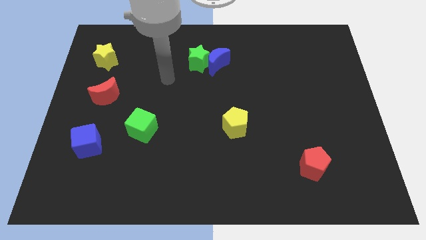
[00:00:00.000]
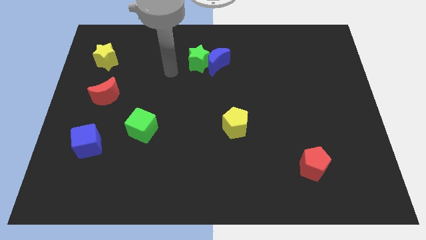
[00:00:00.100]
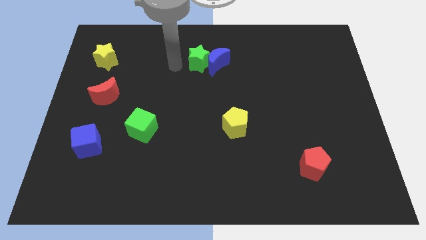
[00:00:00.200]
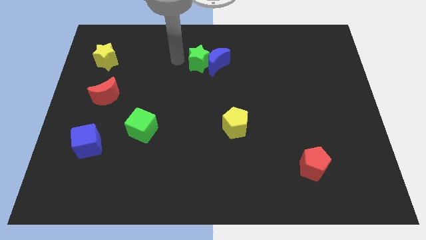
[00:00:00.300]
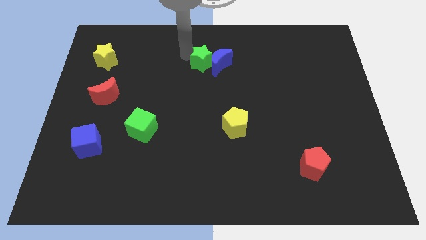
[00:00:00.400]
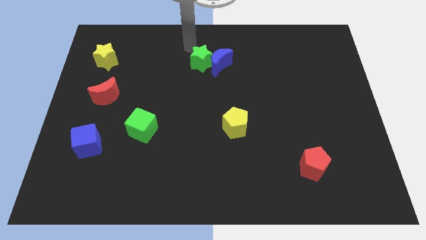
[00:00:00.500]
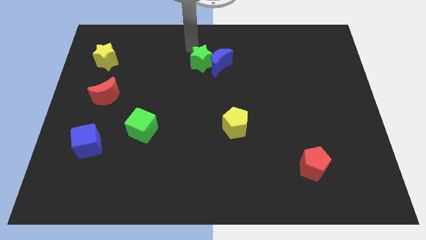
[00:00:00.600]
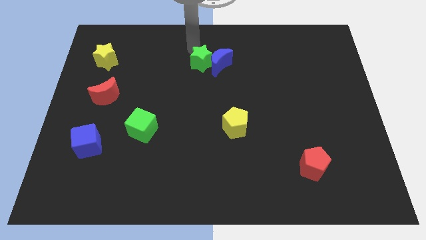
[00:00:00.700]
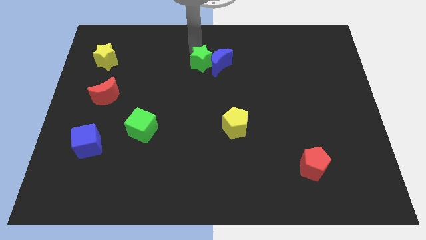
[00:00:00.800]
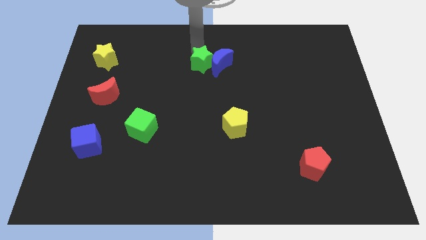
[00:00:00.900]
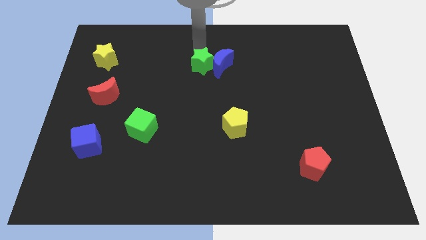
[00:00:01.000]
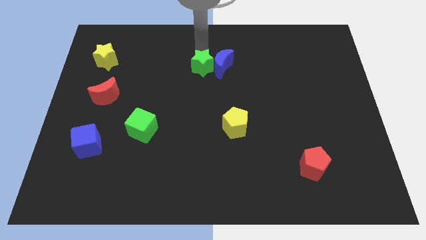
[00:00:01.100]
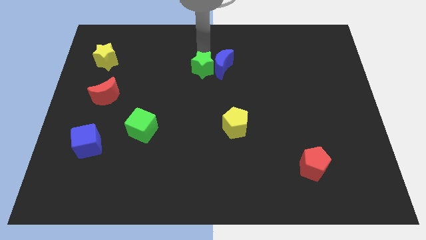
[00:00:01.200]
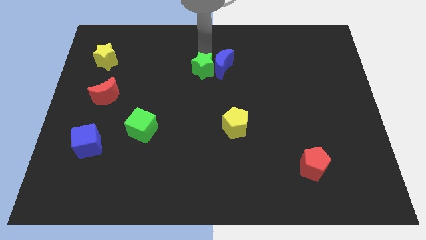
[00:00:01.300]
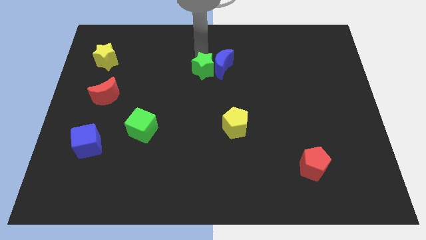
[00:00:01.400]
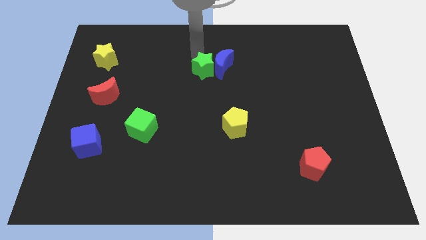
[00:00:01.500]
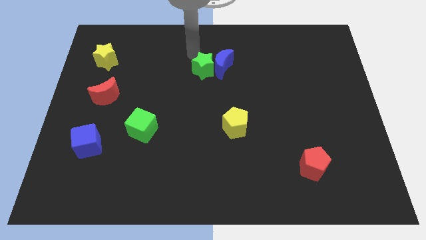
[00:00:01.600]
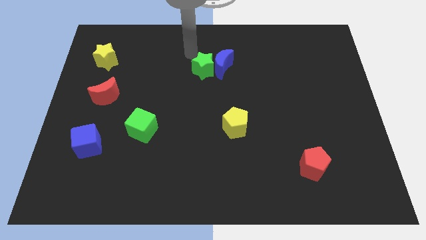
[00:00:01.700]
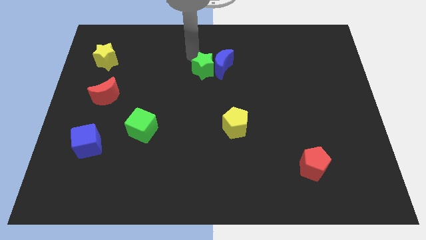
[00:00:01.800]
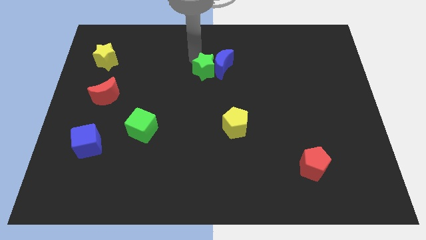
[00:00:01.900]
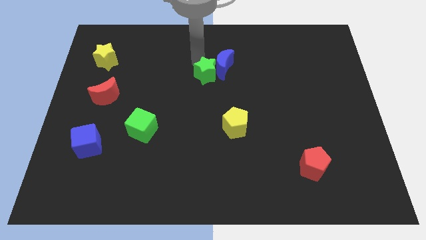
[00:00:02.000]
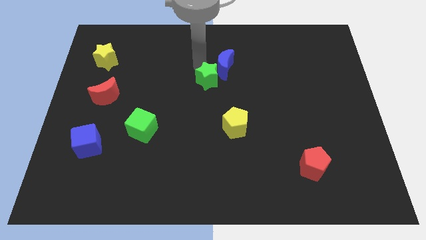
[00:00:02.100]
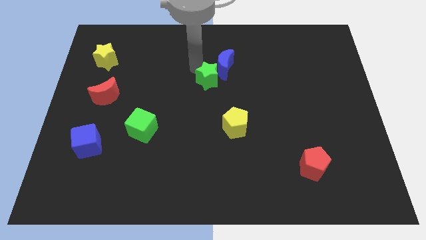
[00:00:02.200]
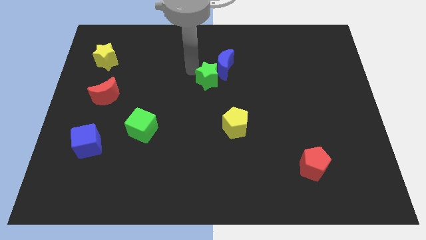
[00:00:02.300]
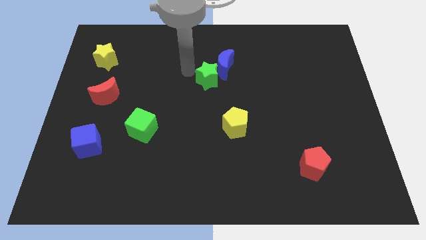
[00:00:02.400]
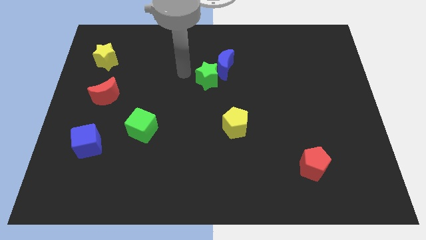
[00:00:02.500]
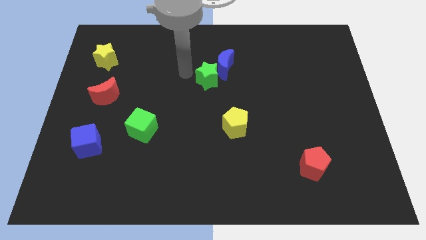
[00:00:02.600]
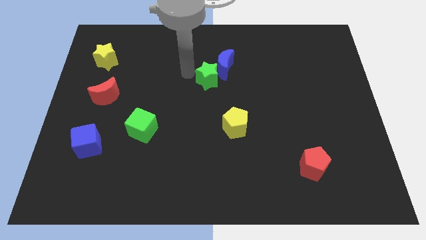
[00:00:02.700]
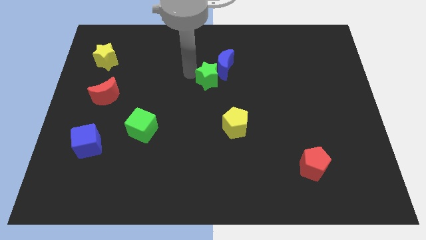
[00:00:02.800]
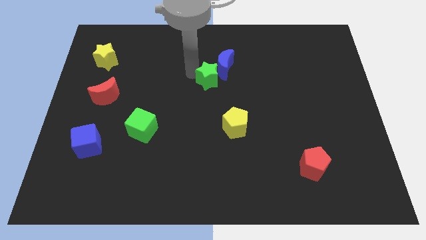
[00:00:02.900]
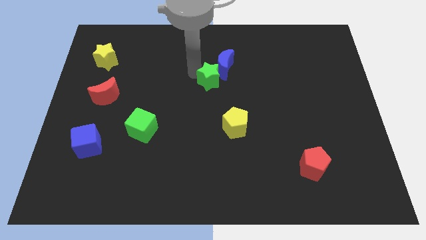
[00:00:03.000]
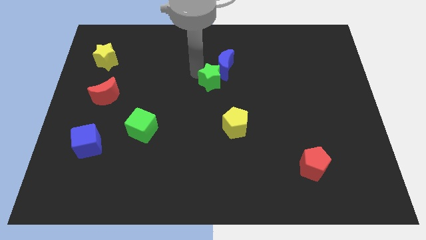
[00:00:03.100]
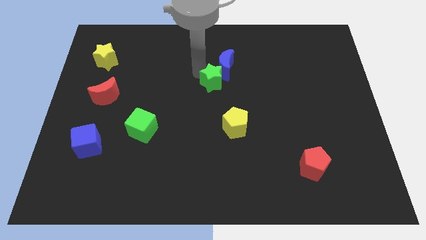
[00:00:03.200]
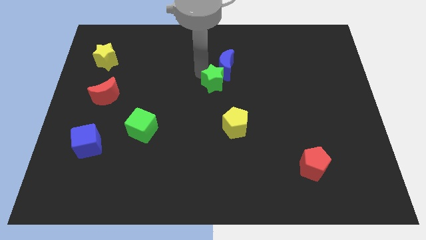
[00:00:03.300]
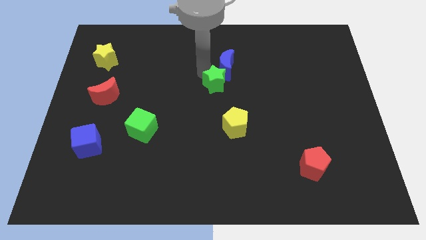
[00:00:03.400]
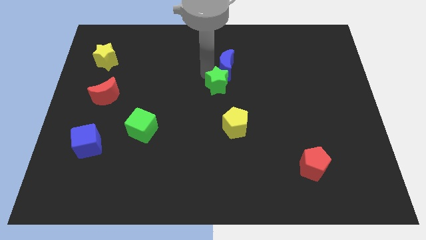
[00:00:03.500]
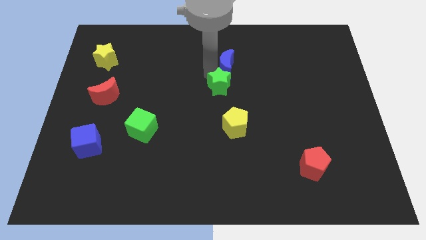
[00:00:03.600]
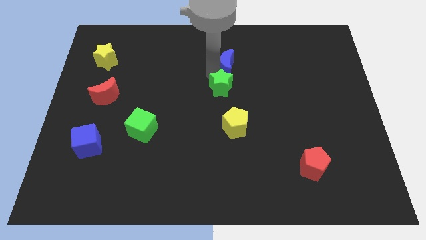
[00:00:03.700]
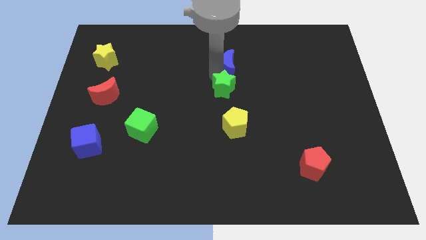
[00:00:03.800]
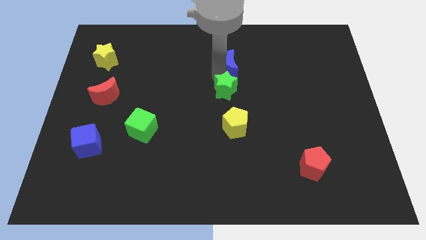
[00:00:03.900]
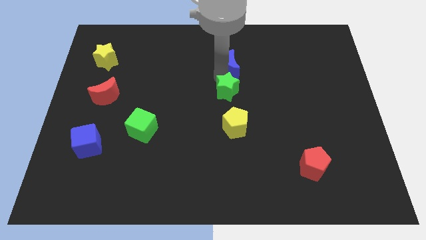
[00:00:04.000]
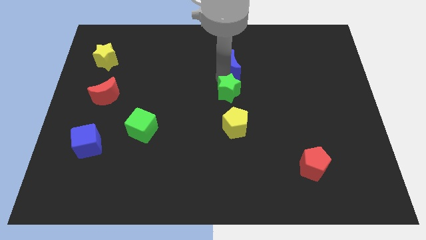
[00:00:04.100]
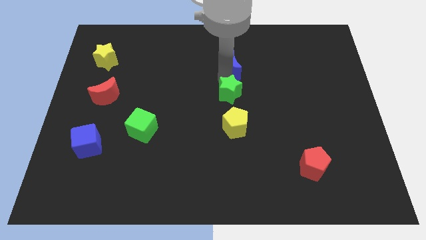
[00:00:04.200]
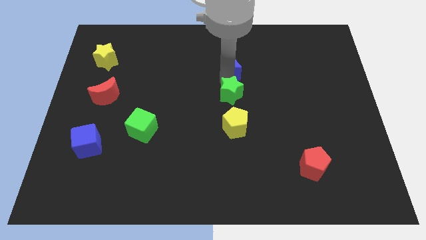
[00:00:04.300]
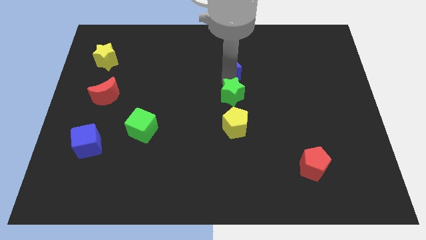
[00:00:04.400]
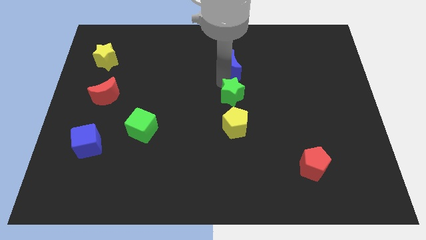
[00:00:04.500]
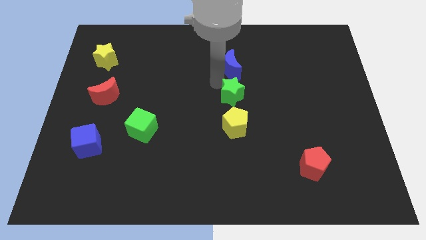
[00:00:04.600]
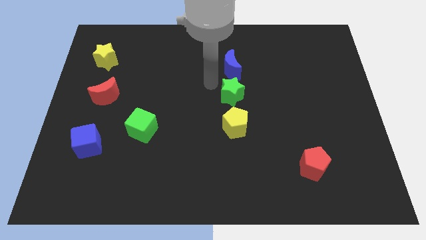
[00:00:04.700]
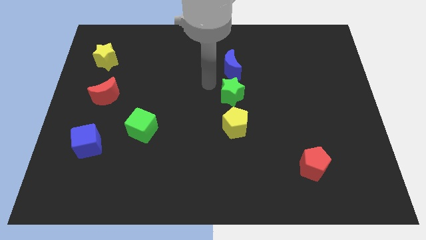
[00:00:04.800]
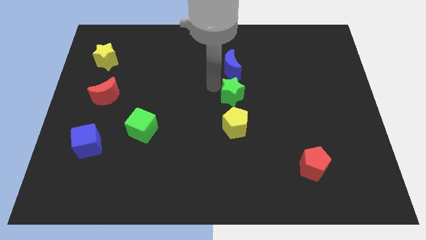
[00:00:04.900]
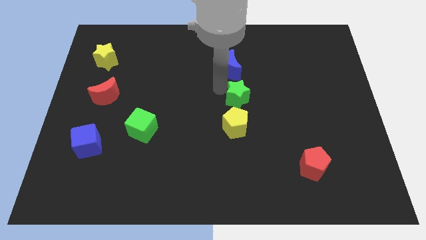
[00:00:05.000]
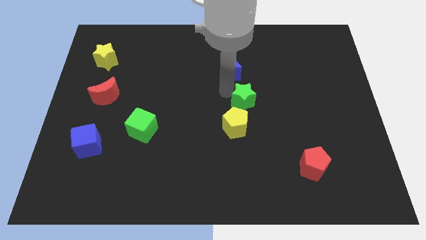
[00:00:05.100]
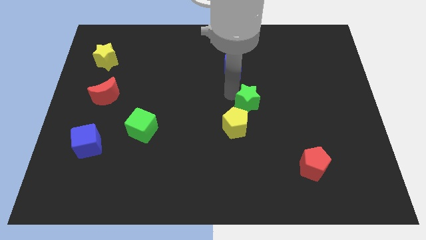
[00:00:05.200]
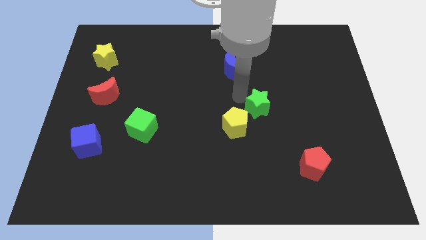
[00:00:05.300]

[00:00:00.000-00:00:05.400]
slide the green star downwards and then right

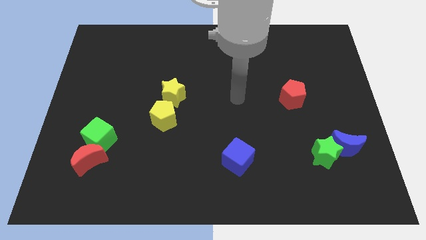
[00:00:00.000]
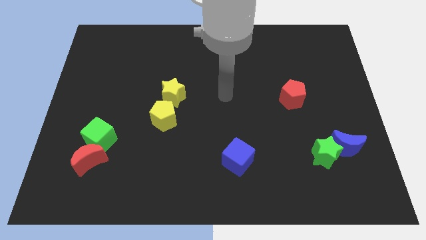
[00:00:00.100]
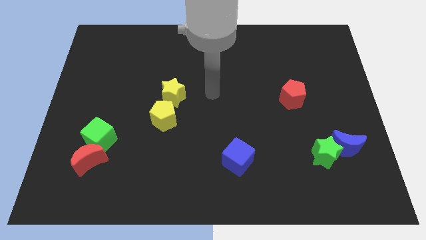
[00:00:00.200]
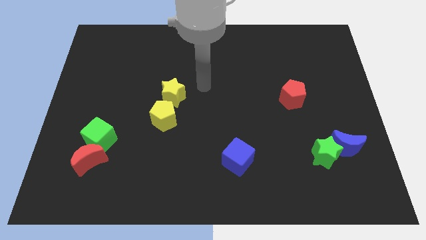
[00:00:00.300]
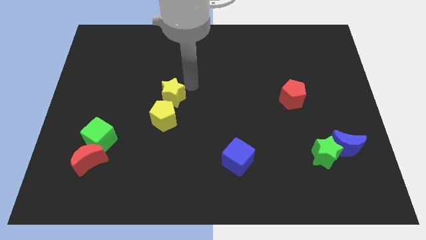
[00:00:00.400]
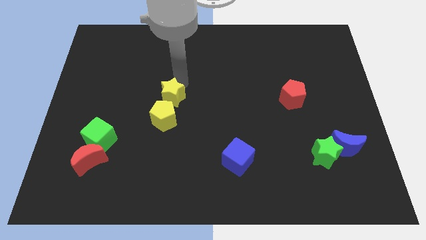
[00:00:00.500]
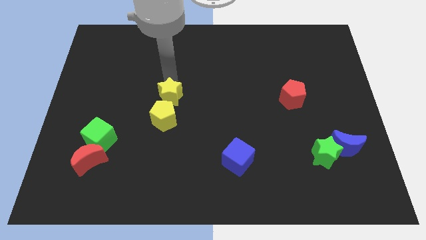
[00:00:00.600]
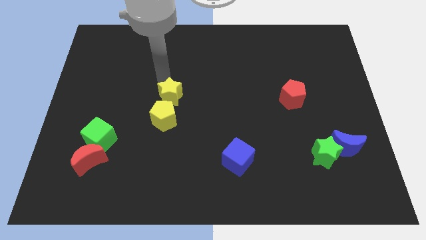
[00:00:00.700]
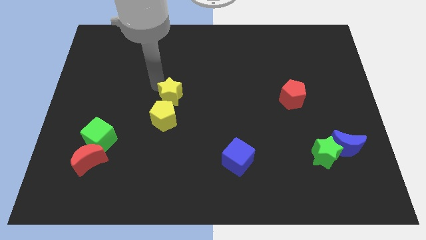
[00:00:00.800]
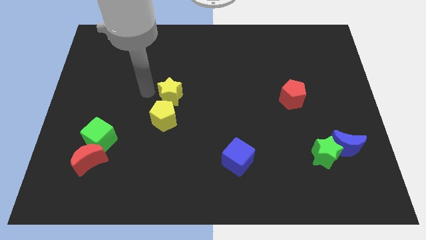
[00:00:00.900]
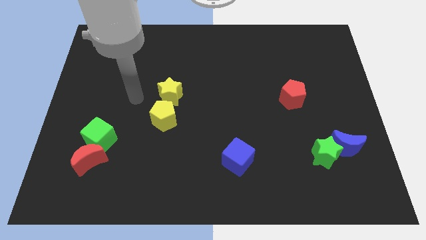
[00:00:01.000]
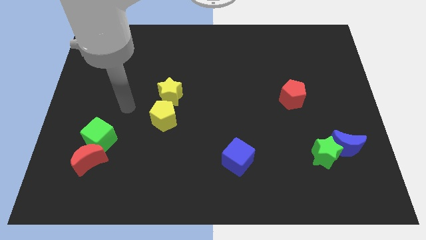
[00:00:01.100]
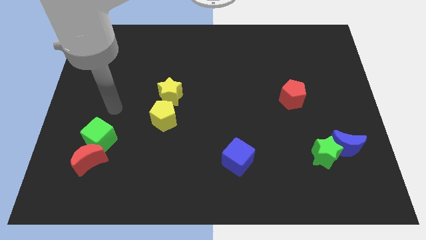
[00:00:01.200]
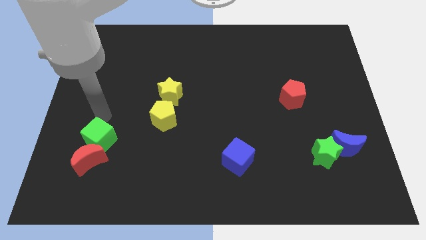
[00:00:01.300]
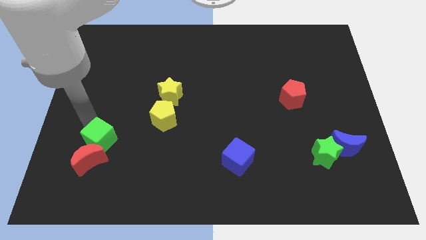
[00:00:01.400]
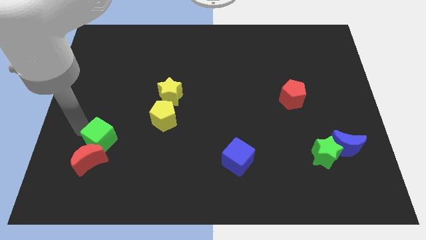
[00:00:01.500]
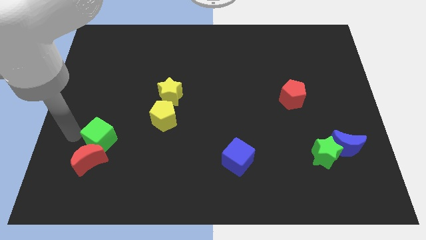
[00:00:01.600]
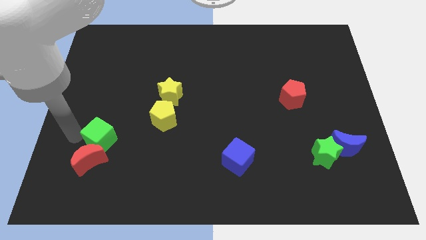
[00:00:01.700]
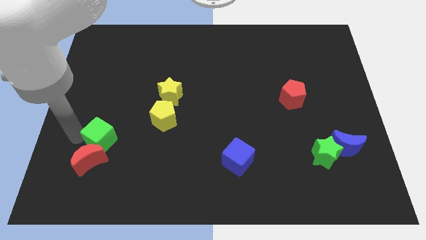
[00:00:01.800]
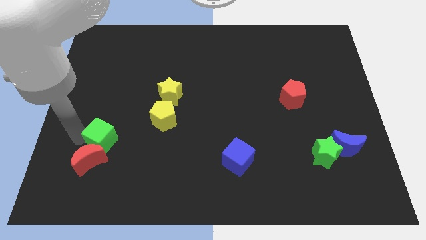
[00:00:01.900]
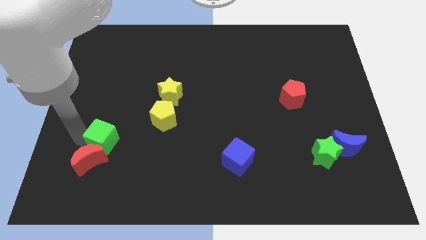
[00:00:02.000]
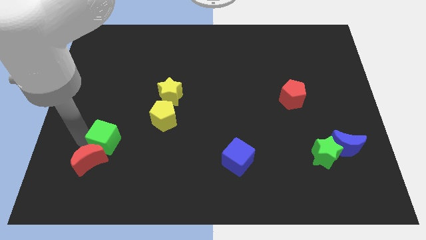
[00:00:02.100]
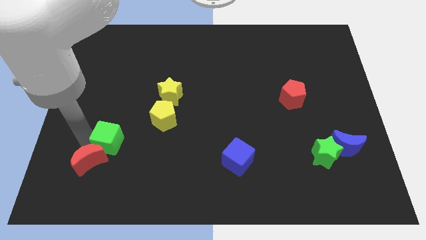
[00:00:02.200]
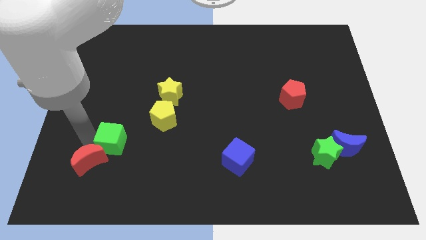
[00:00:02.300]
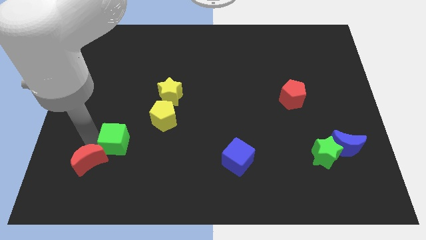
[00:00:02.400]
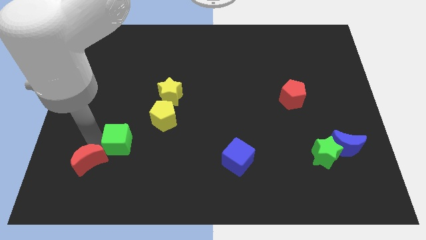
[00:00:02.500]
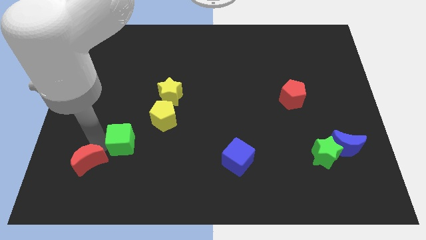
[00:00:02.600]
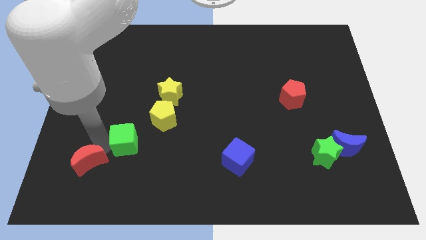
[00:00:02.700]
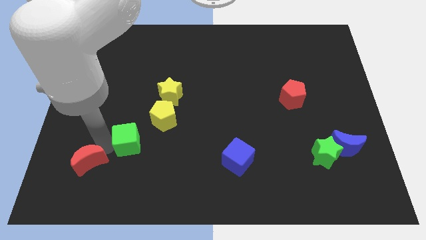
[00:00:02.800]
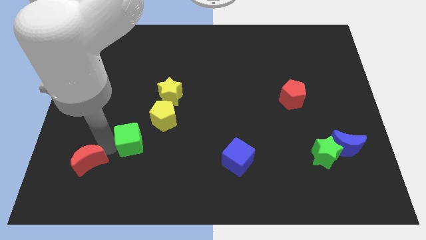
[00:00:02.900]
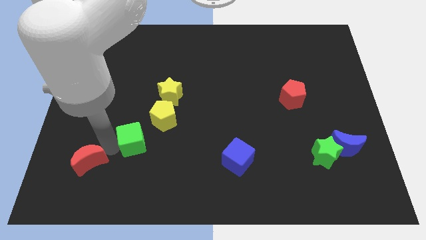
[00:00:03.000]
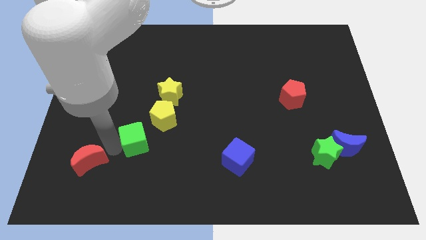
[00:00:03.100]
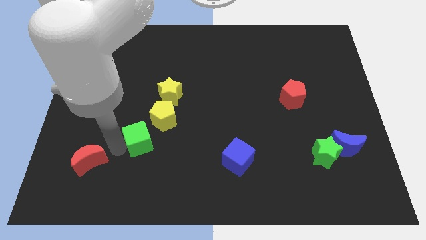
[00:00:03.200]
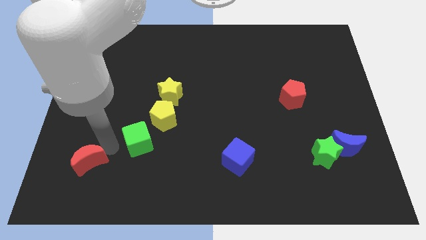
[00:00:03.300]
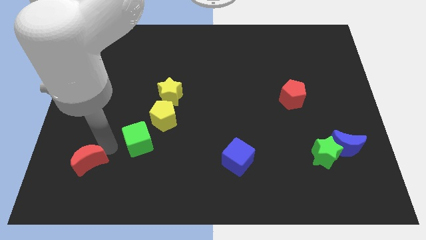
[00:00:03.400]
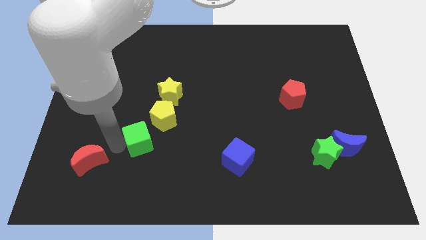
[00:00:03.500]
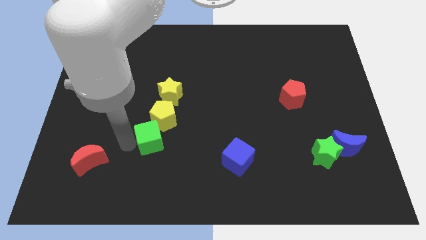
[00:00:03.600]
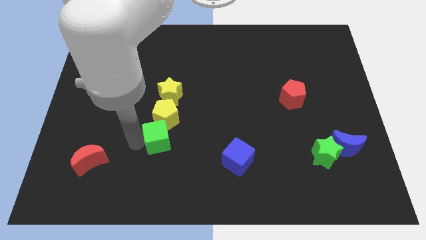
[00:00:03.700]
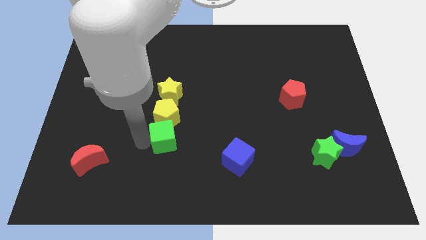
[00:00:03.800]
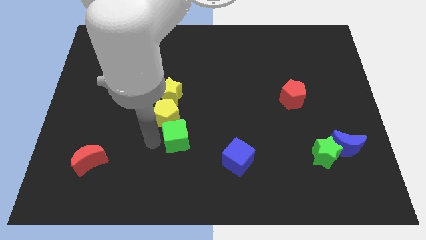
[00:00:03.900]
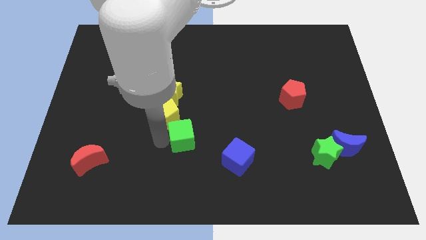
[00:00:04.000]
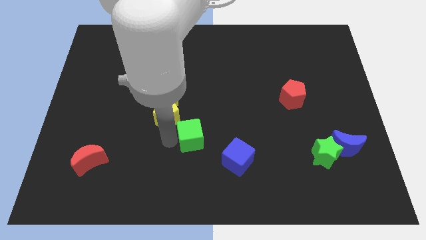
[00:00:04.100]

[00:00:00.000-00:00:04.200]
move the green cube right
